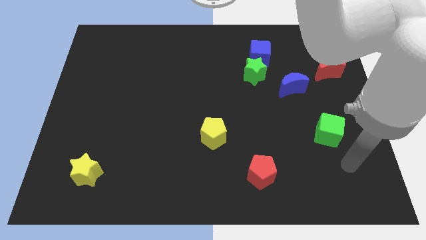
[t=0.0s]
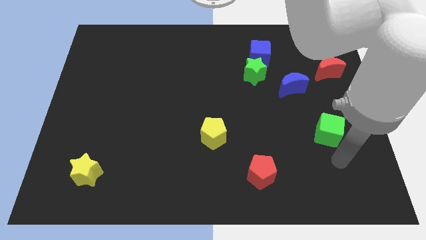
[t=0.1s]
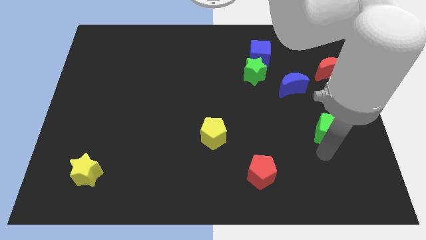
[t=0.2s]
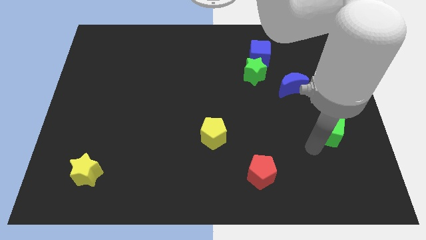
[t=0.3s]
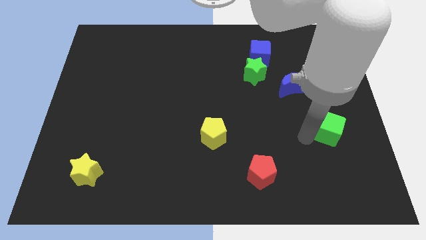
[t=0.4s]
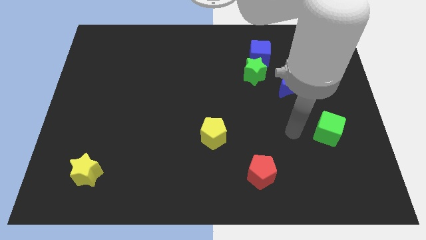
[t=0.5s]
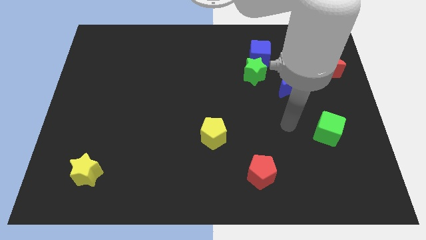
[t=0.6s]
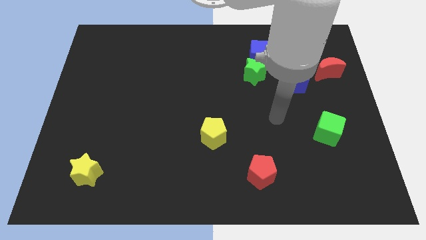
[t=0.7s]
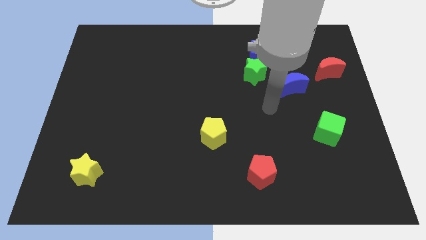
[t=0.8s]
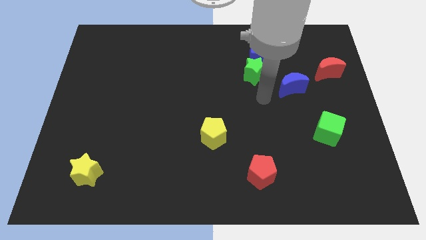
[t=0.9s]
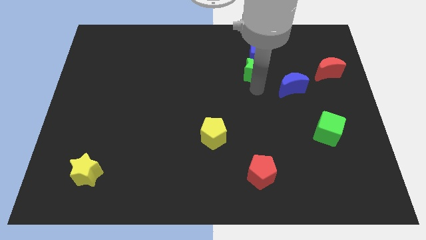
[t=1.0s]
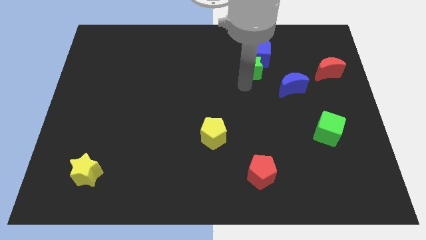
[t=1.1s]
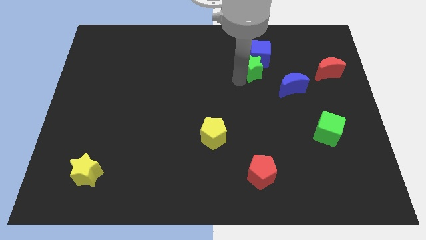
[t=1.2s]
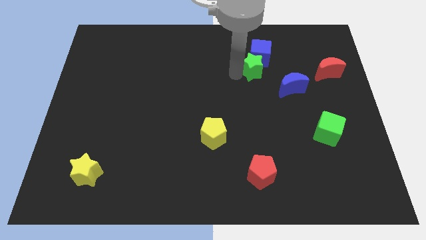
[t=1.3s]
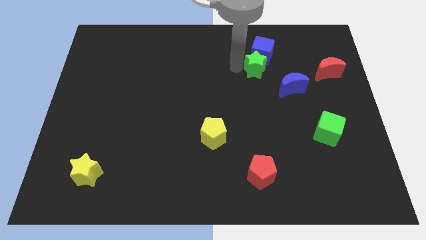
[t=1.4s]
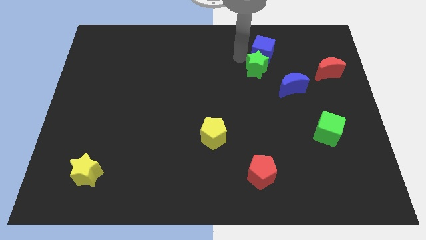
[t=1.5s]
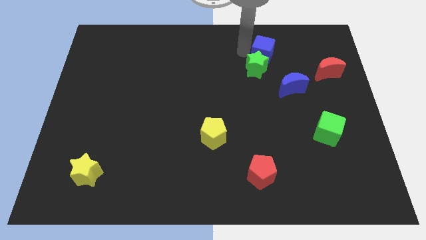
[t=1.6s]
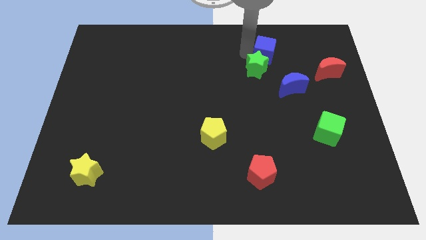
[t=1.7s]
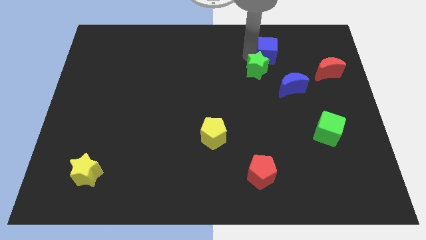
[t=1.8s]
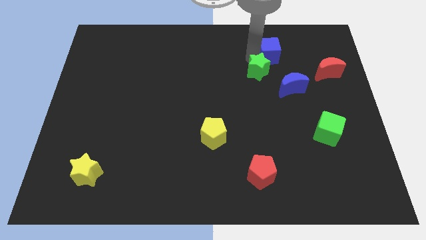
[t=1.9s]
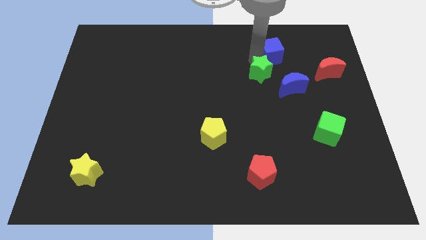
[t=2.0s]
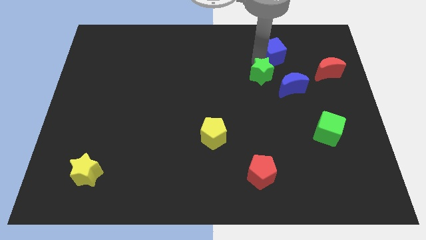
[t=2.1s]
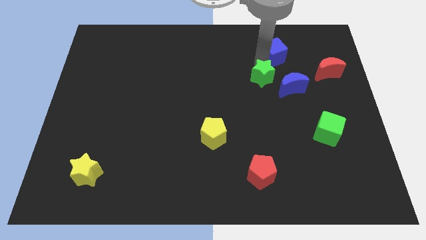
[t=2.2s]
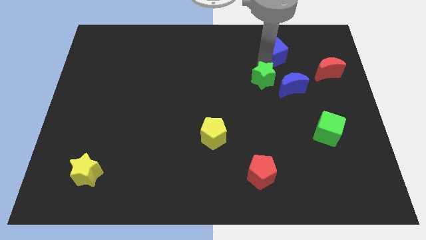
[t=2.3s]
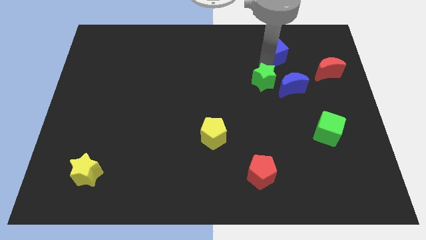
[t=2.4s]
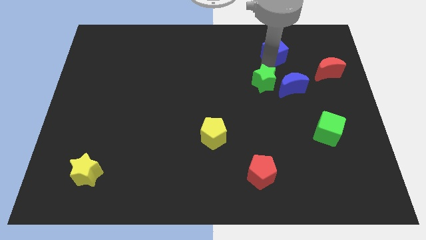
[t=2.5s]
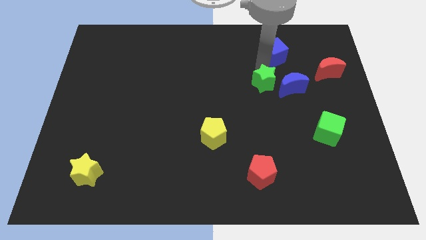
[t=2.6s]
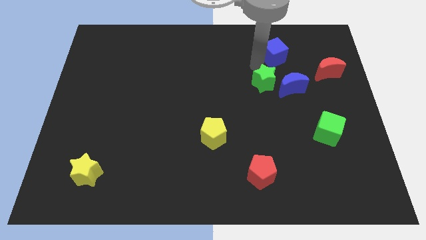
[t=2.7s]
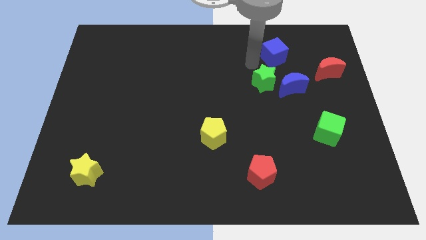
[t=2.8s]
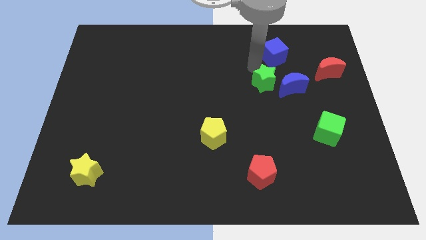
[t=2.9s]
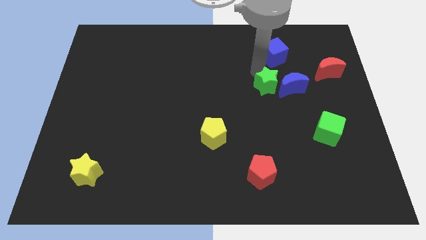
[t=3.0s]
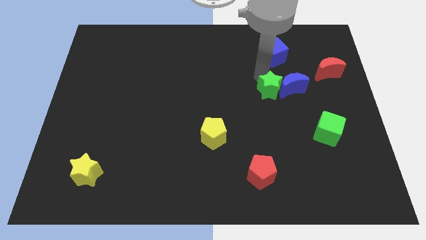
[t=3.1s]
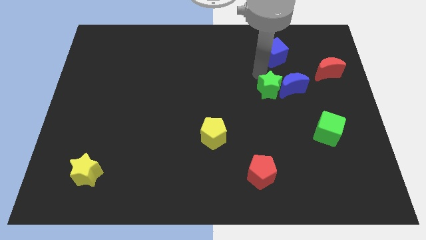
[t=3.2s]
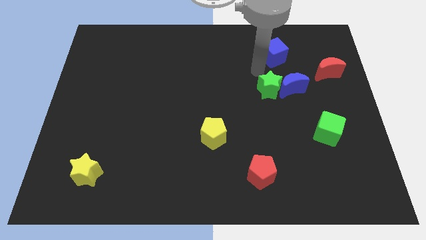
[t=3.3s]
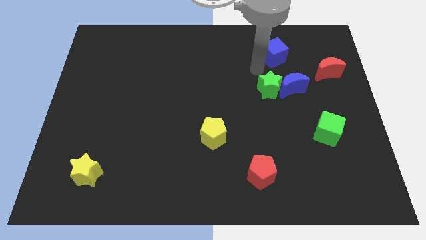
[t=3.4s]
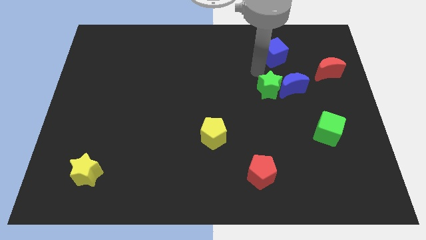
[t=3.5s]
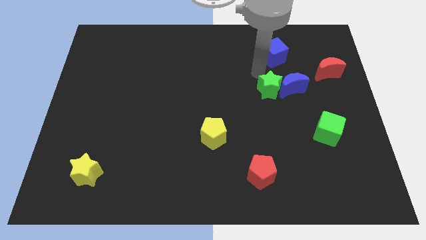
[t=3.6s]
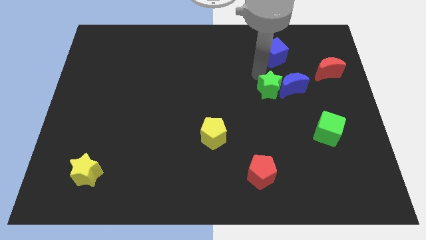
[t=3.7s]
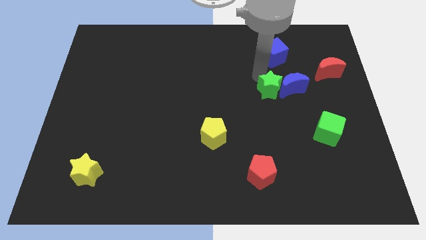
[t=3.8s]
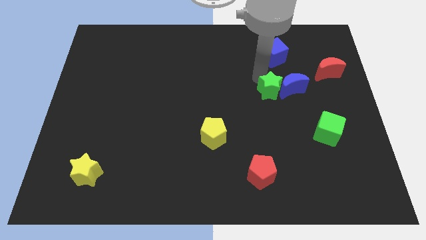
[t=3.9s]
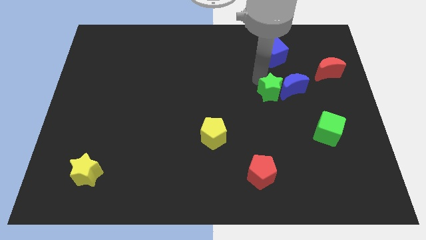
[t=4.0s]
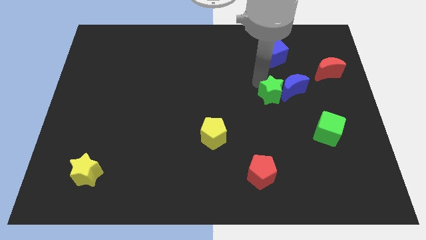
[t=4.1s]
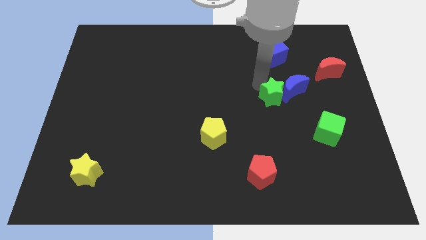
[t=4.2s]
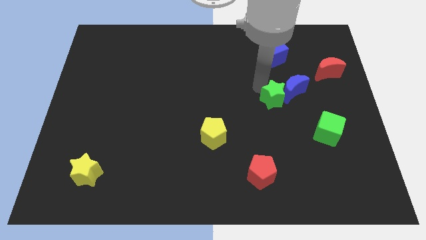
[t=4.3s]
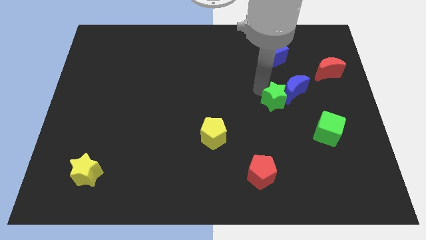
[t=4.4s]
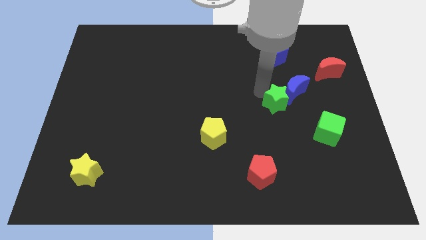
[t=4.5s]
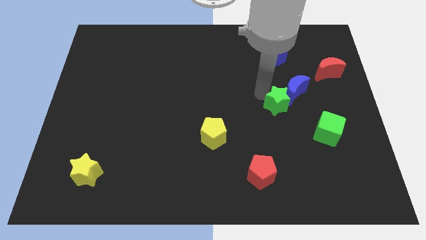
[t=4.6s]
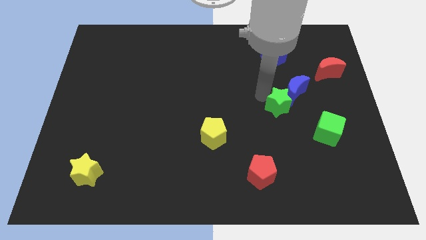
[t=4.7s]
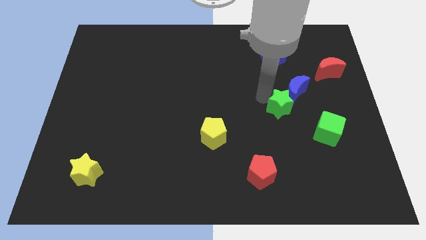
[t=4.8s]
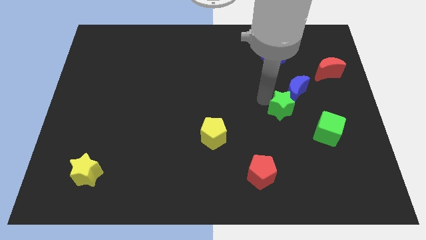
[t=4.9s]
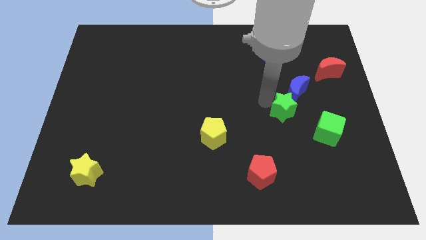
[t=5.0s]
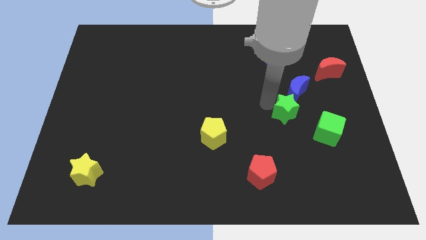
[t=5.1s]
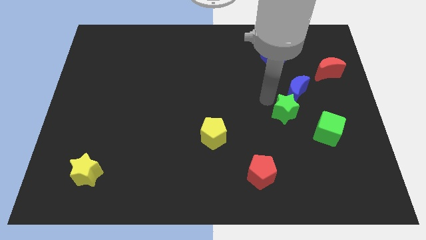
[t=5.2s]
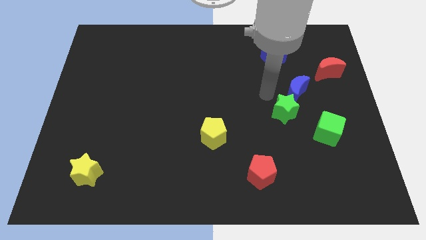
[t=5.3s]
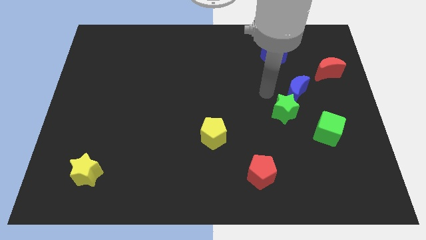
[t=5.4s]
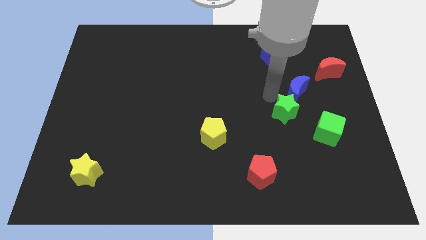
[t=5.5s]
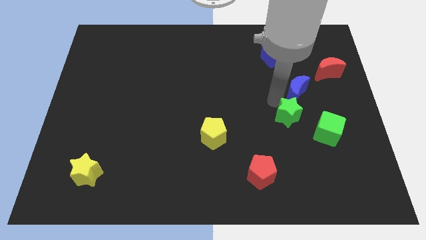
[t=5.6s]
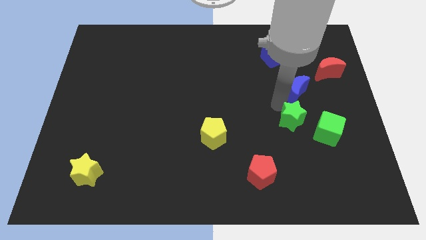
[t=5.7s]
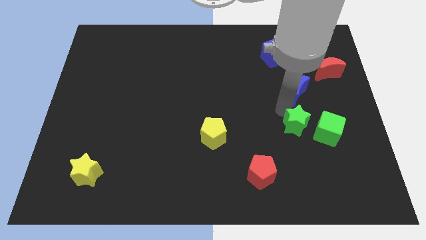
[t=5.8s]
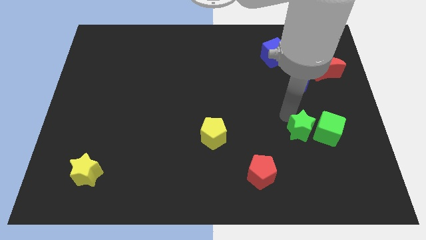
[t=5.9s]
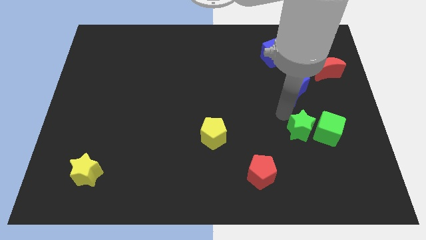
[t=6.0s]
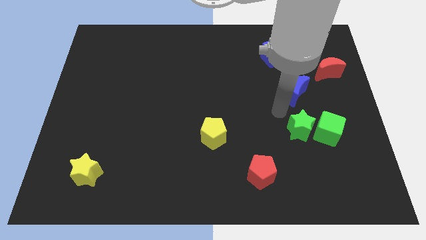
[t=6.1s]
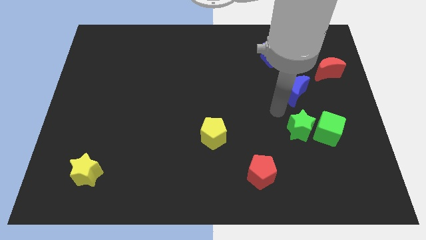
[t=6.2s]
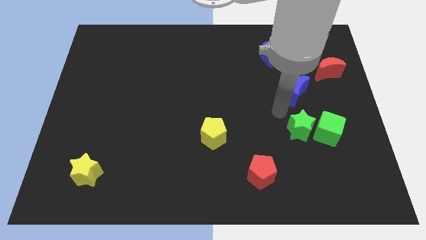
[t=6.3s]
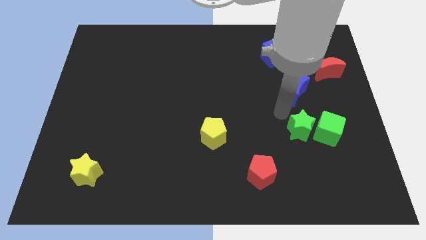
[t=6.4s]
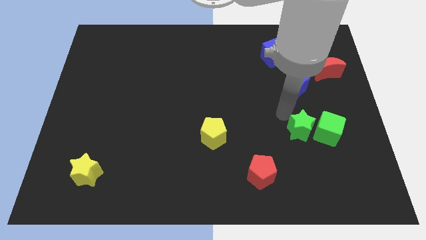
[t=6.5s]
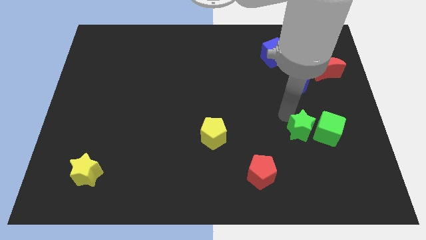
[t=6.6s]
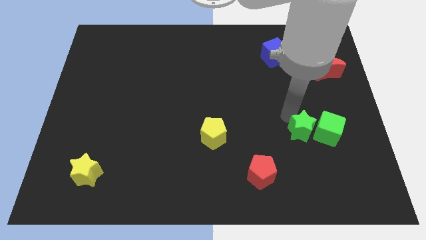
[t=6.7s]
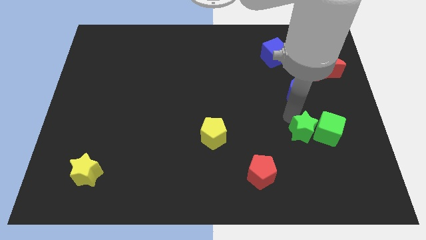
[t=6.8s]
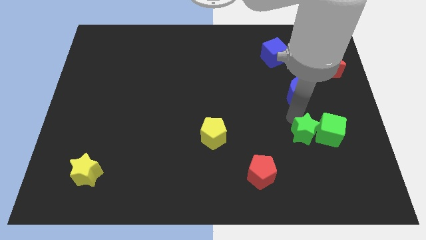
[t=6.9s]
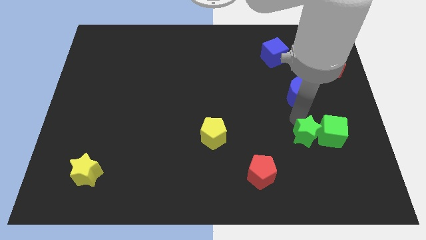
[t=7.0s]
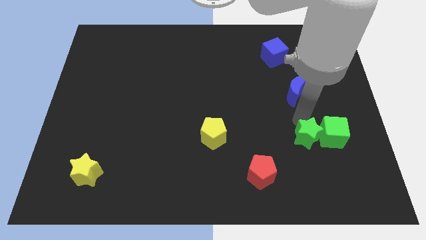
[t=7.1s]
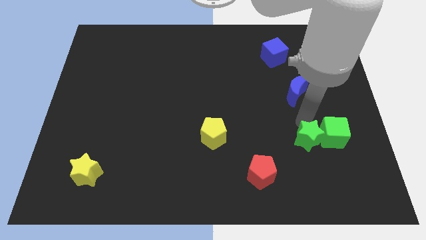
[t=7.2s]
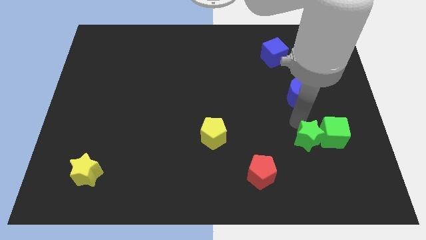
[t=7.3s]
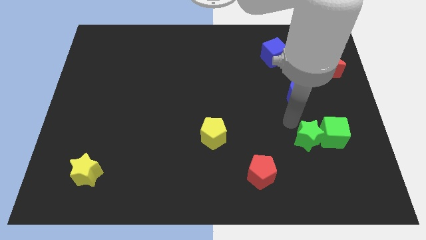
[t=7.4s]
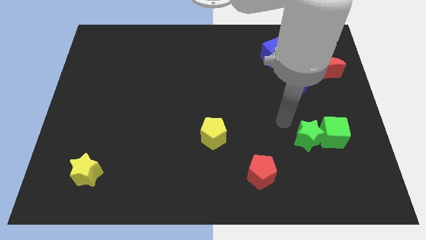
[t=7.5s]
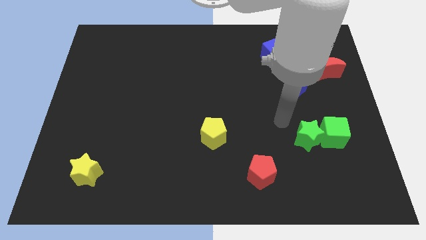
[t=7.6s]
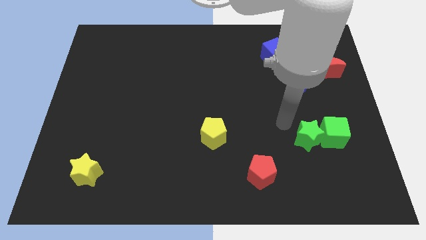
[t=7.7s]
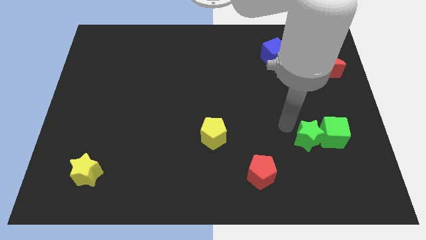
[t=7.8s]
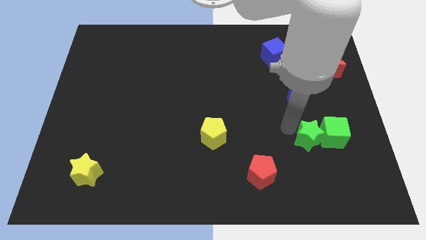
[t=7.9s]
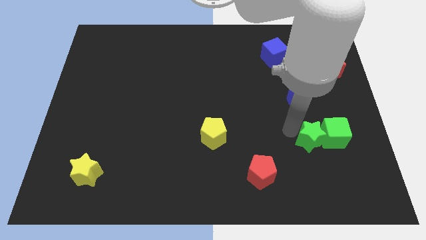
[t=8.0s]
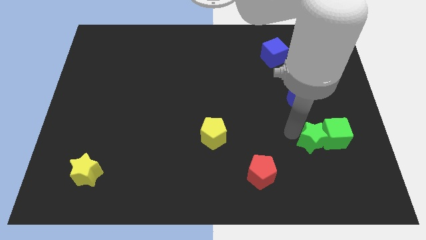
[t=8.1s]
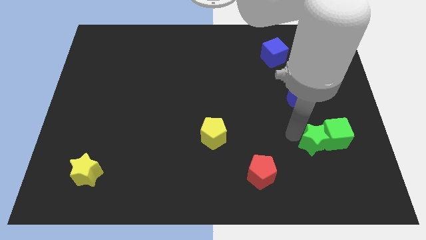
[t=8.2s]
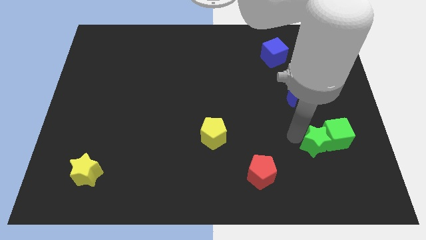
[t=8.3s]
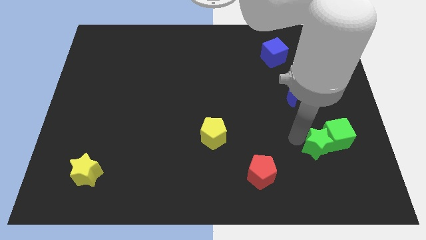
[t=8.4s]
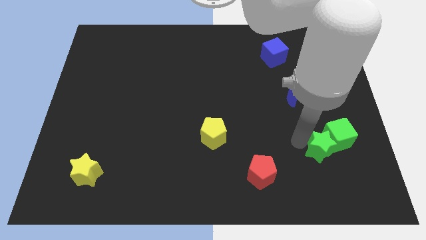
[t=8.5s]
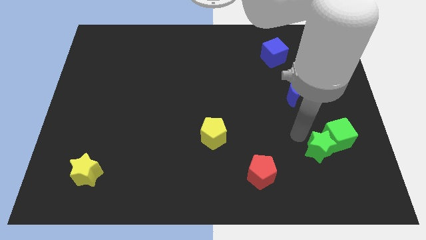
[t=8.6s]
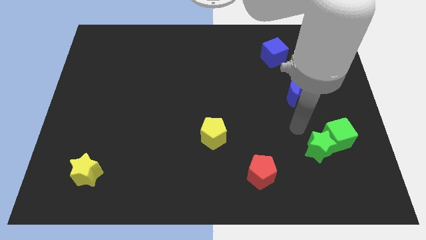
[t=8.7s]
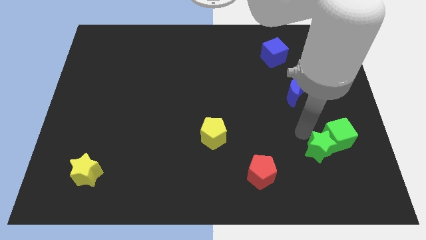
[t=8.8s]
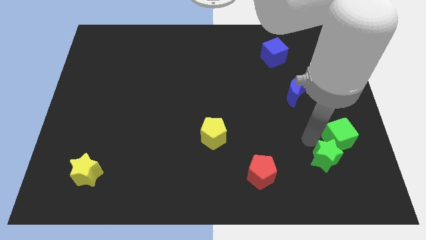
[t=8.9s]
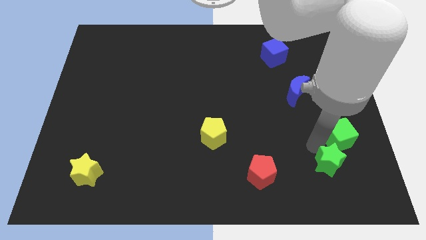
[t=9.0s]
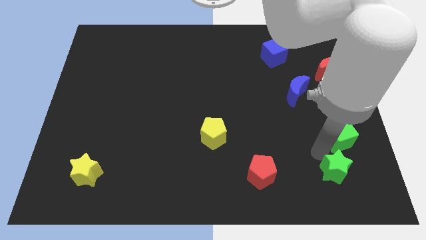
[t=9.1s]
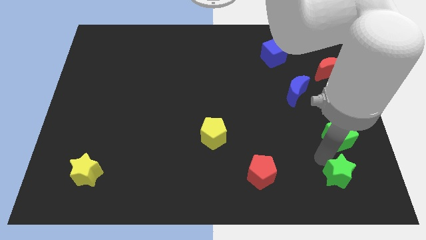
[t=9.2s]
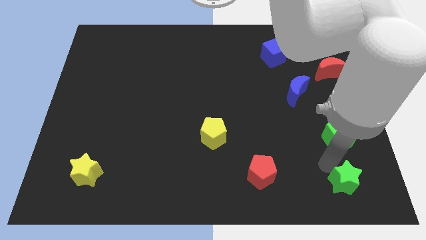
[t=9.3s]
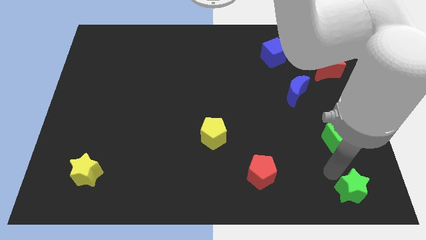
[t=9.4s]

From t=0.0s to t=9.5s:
push the green star to the bottom right of the board
